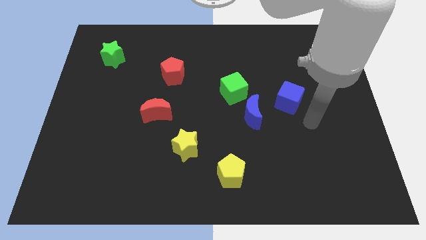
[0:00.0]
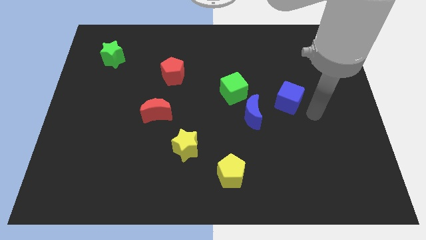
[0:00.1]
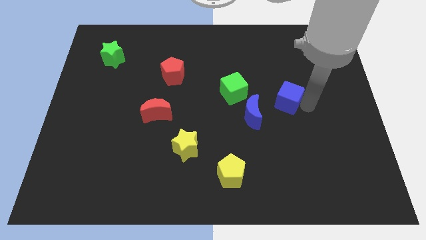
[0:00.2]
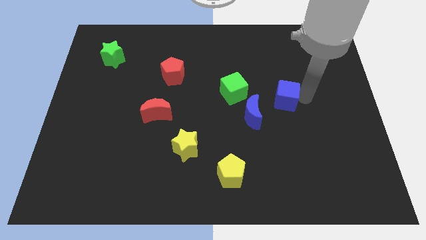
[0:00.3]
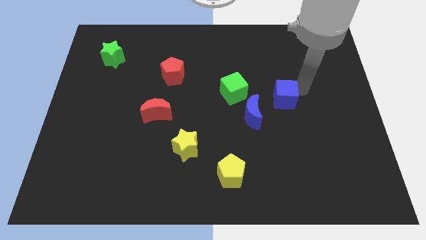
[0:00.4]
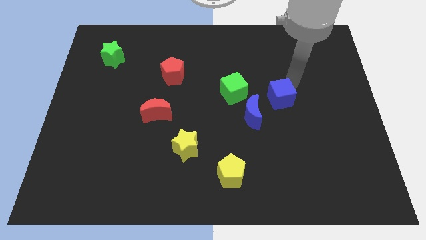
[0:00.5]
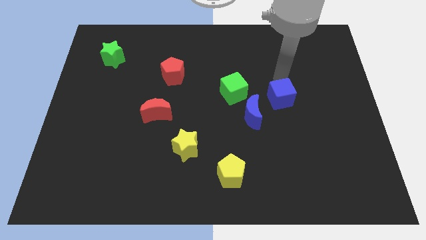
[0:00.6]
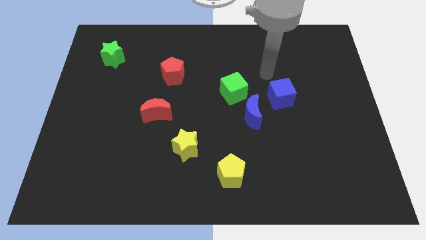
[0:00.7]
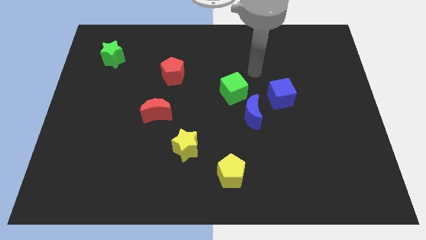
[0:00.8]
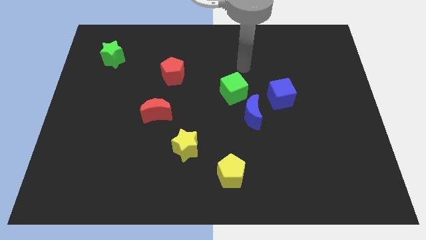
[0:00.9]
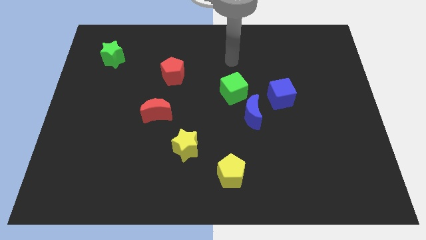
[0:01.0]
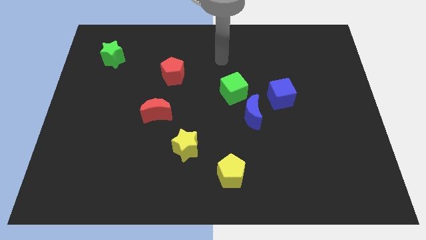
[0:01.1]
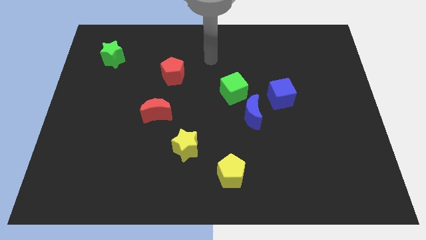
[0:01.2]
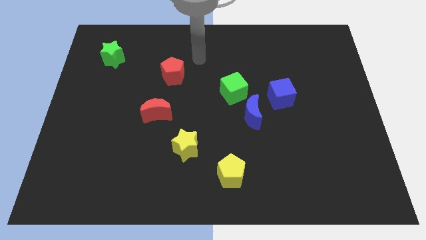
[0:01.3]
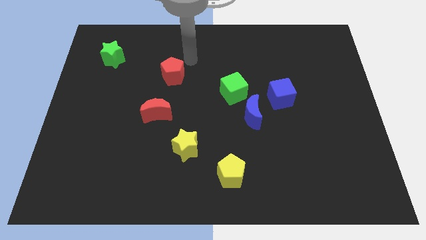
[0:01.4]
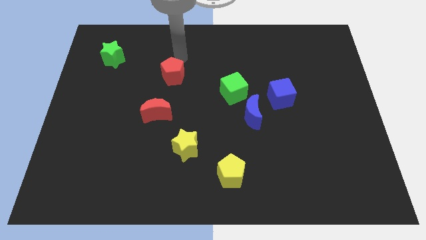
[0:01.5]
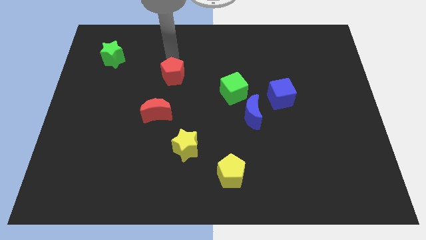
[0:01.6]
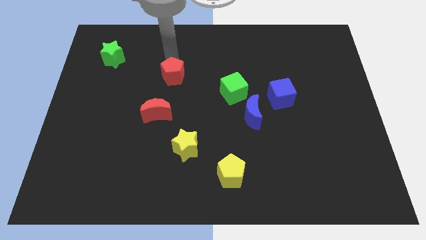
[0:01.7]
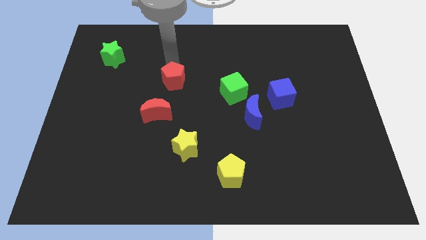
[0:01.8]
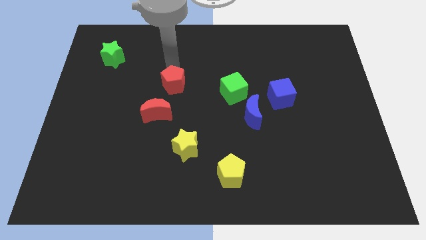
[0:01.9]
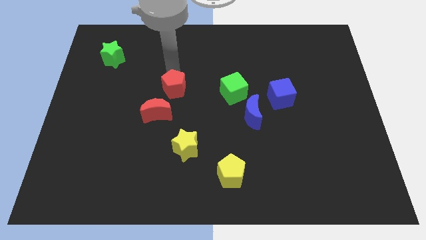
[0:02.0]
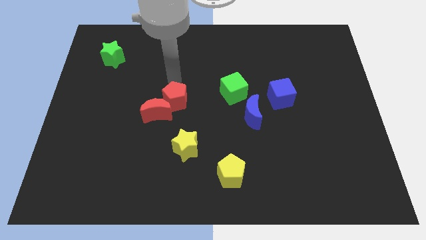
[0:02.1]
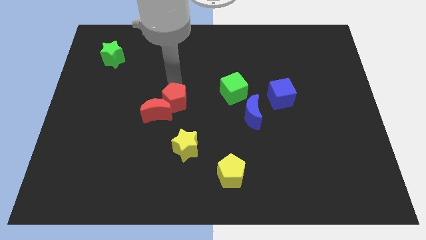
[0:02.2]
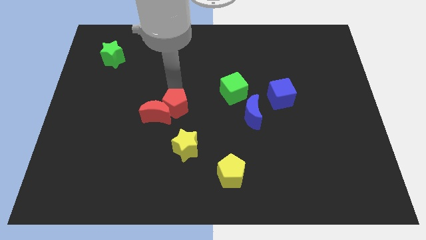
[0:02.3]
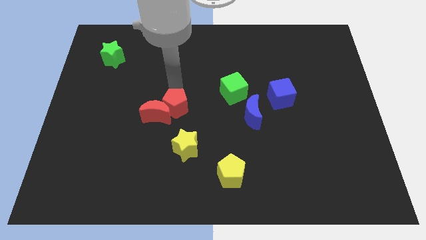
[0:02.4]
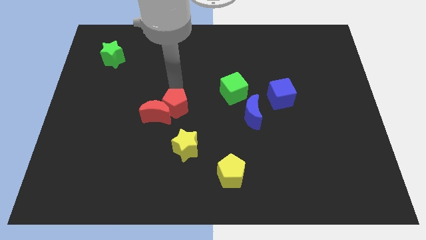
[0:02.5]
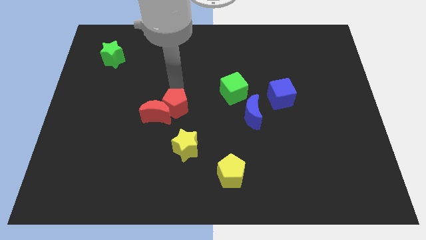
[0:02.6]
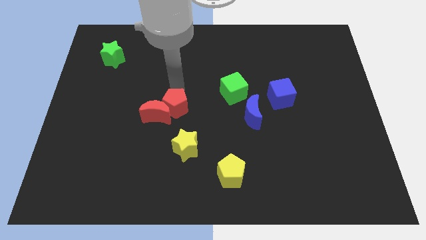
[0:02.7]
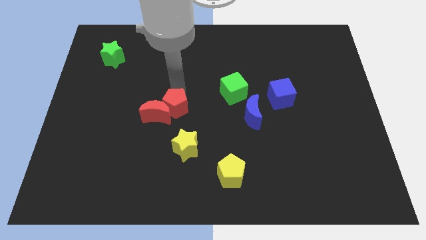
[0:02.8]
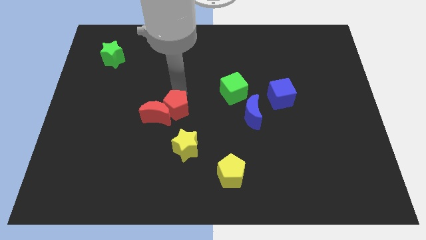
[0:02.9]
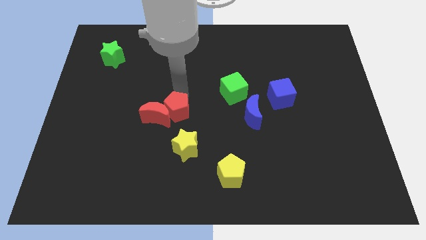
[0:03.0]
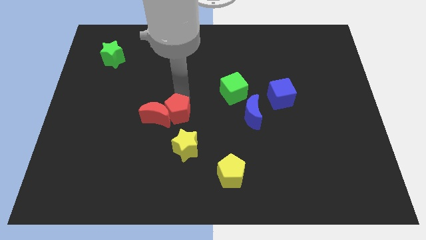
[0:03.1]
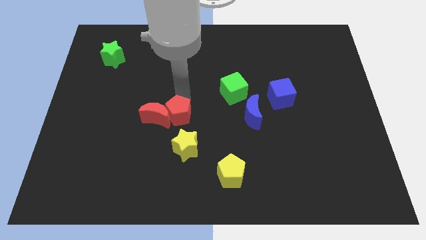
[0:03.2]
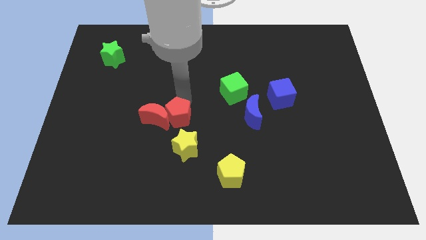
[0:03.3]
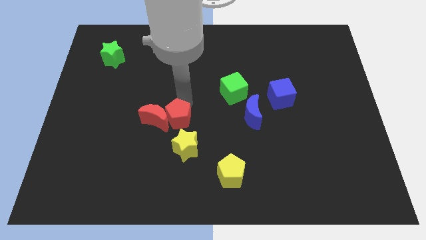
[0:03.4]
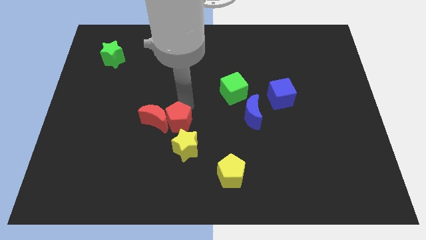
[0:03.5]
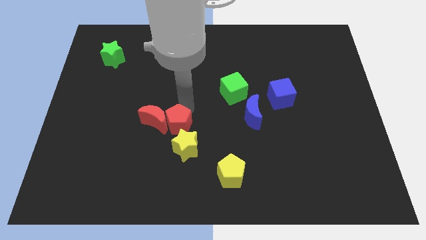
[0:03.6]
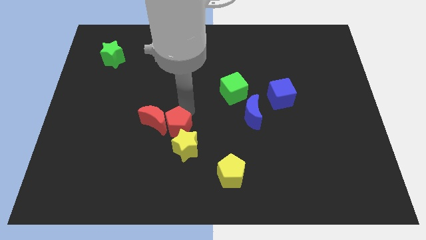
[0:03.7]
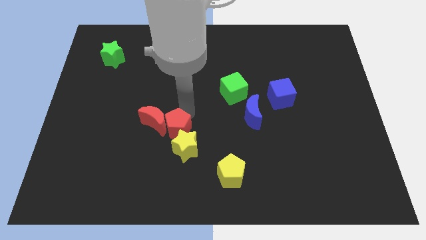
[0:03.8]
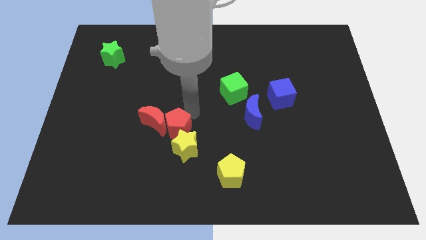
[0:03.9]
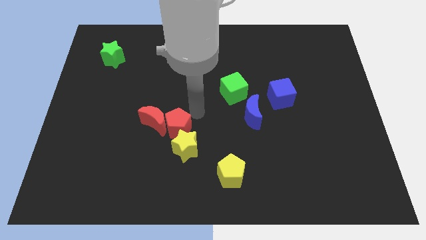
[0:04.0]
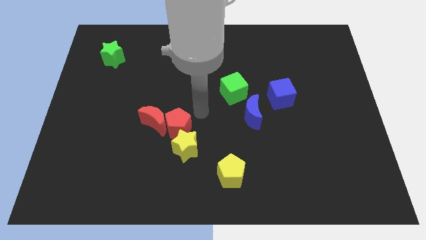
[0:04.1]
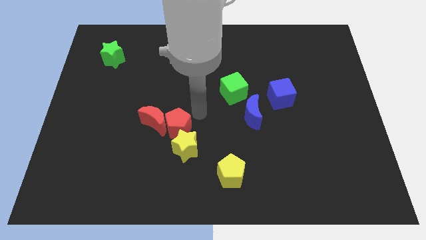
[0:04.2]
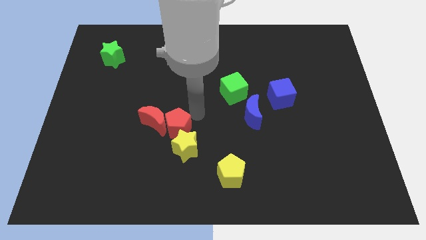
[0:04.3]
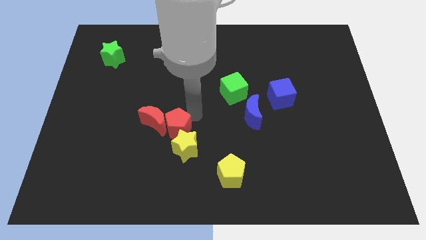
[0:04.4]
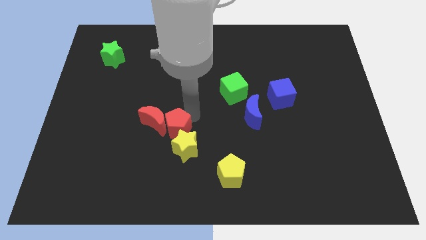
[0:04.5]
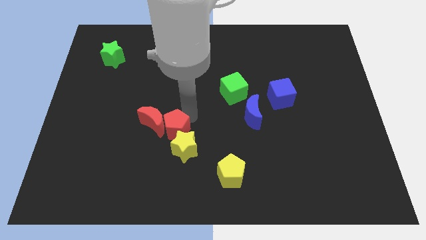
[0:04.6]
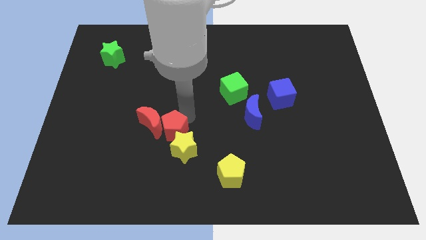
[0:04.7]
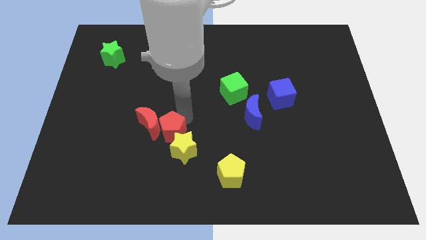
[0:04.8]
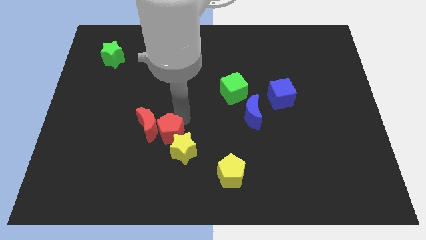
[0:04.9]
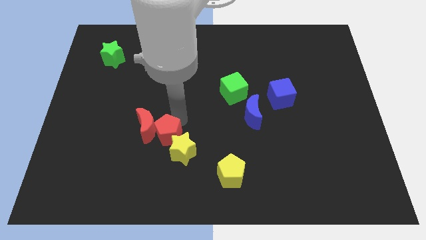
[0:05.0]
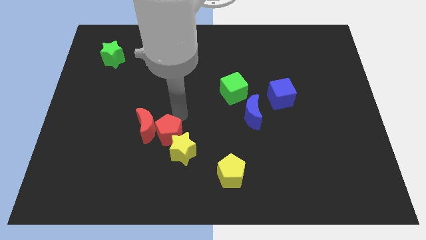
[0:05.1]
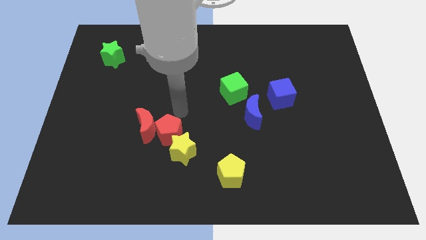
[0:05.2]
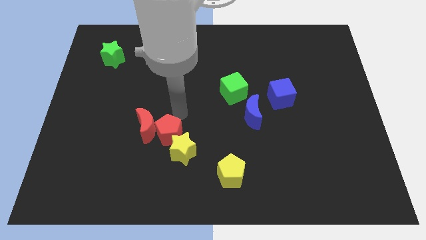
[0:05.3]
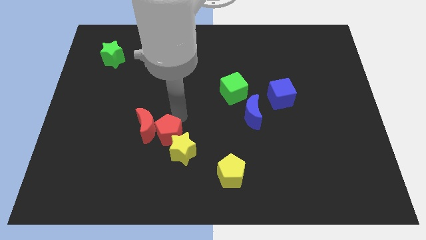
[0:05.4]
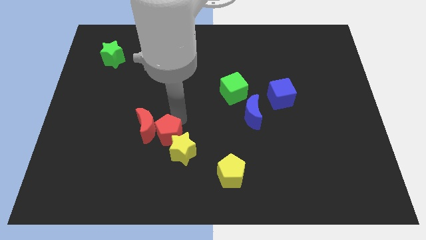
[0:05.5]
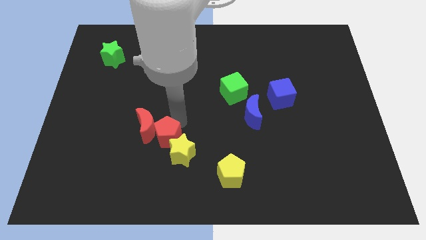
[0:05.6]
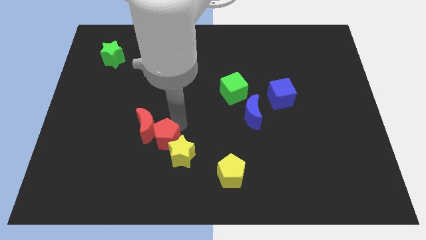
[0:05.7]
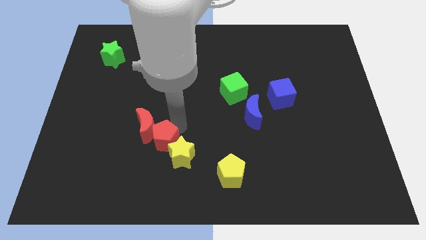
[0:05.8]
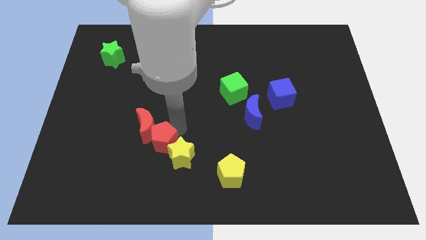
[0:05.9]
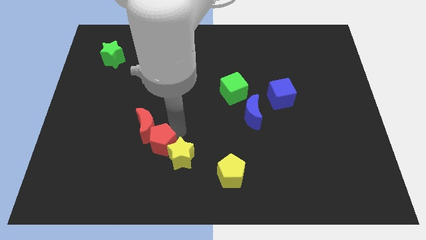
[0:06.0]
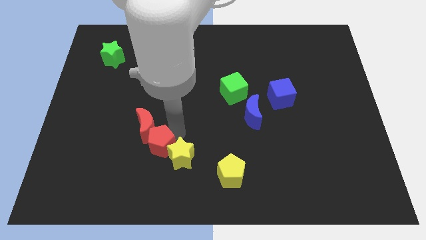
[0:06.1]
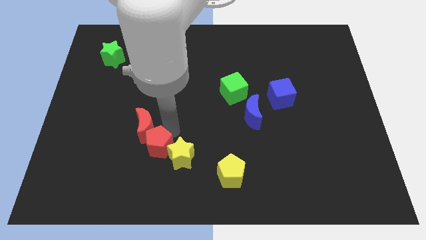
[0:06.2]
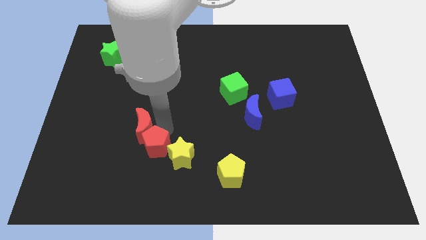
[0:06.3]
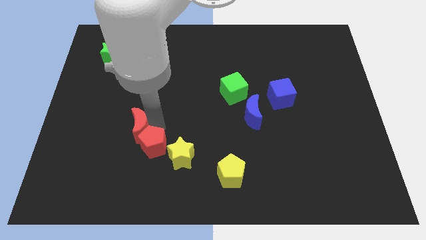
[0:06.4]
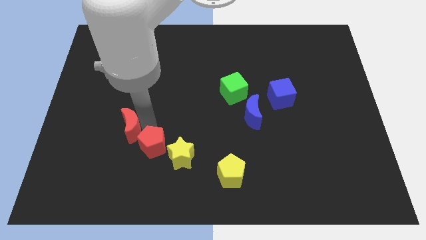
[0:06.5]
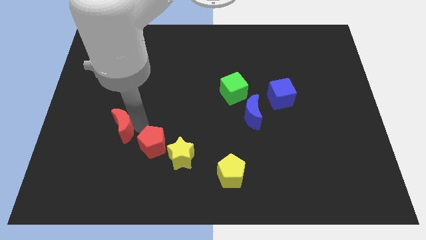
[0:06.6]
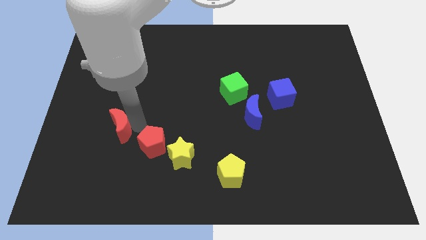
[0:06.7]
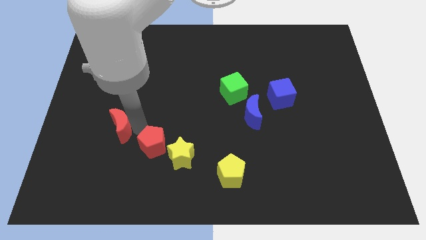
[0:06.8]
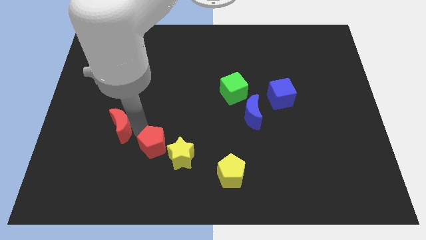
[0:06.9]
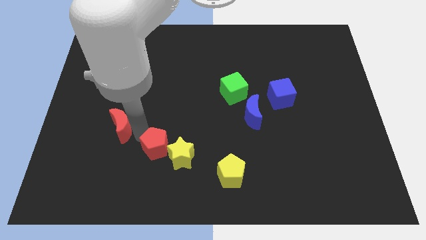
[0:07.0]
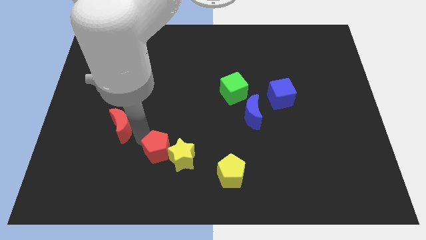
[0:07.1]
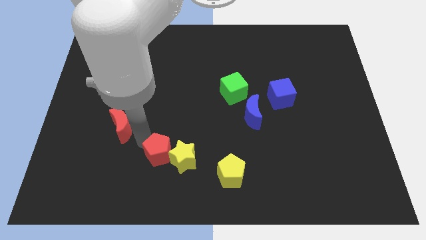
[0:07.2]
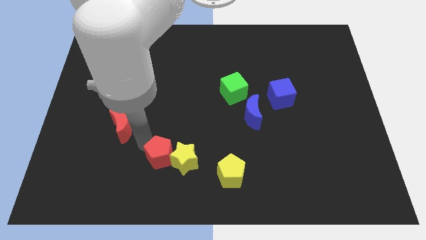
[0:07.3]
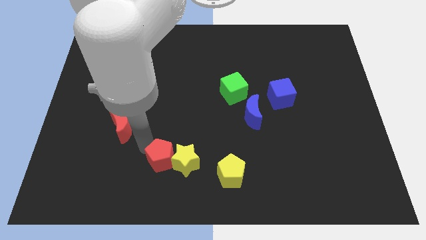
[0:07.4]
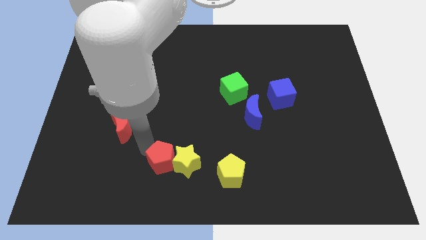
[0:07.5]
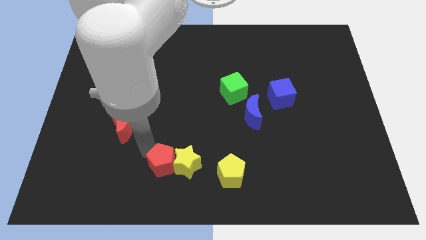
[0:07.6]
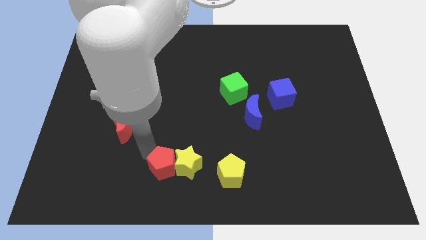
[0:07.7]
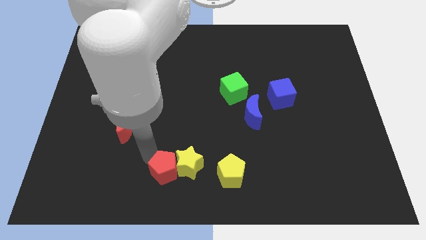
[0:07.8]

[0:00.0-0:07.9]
move the red pentagon to the bottom side
